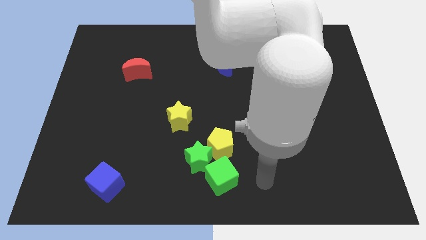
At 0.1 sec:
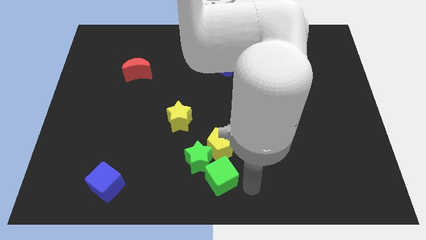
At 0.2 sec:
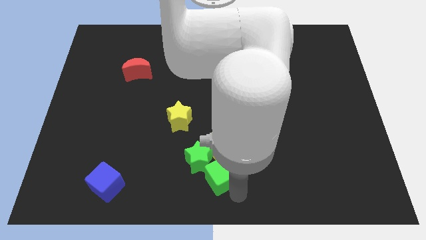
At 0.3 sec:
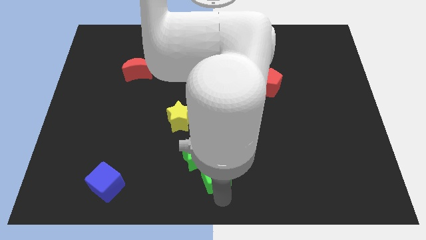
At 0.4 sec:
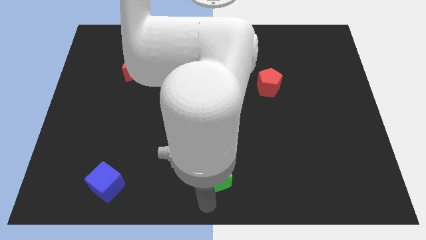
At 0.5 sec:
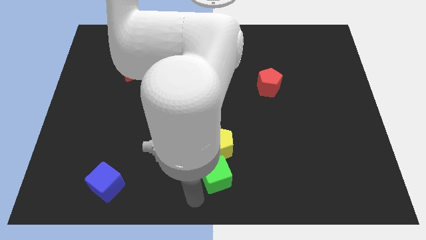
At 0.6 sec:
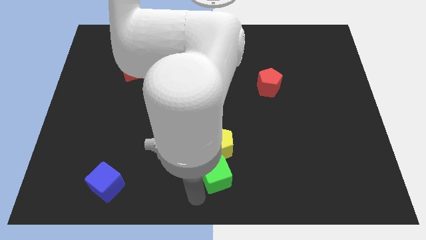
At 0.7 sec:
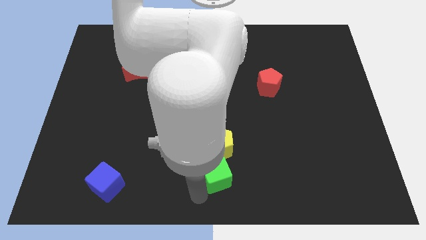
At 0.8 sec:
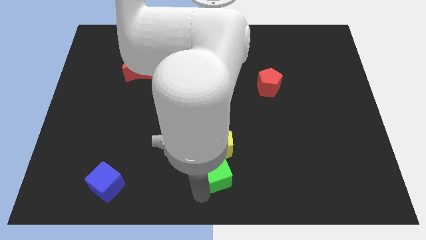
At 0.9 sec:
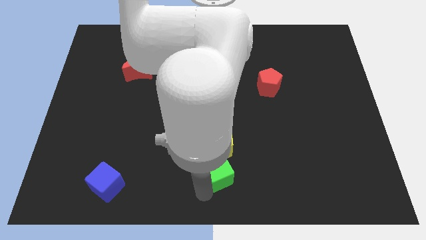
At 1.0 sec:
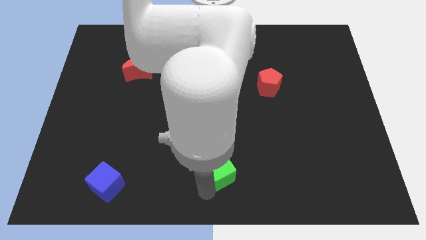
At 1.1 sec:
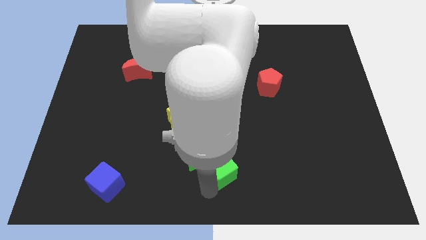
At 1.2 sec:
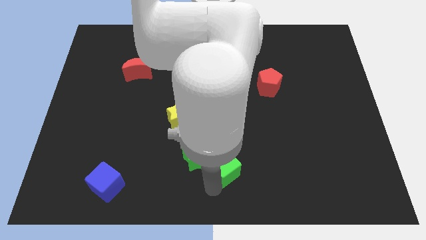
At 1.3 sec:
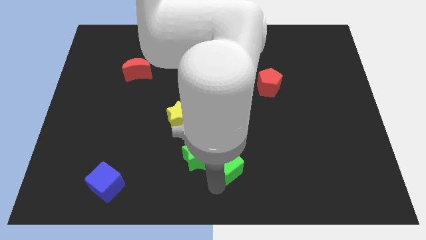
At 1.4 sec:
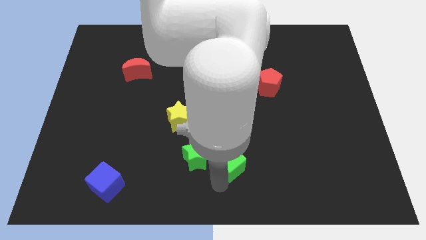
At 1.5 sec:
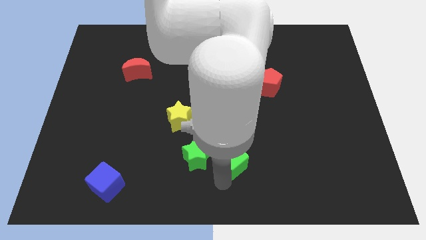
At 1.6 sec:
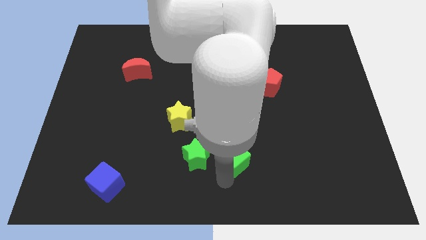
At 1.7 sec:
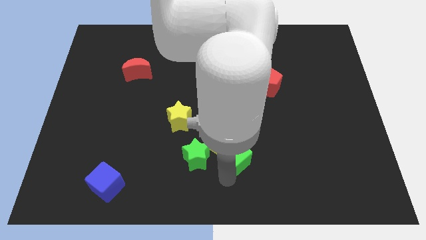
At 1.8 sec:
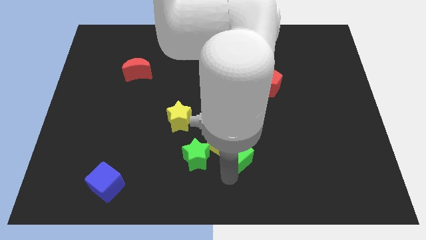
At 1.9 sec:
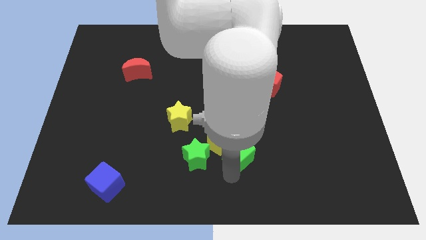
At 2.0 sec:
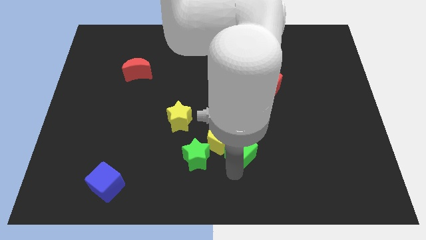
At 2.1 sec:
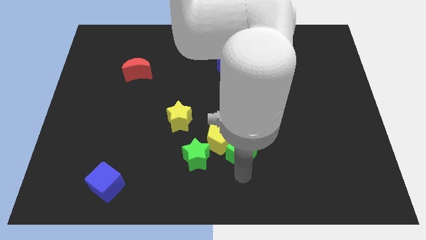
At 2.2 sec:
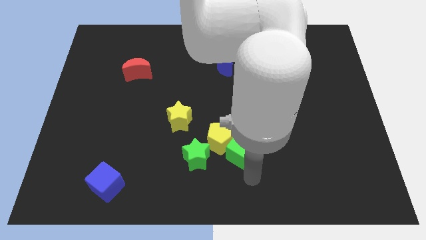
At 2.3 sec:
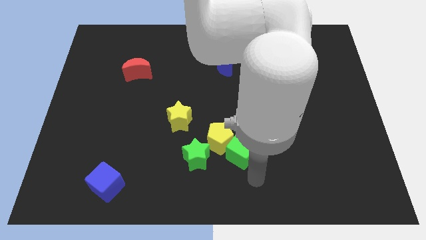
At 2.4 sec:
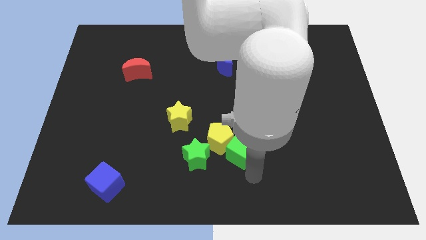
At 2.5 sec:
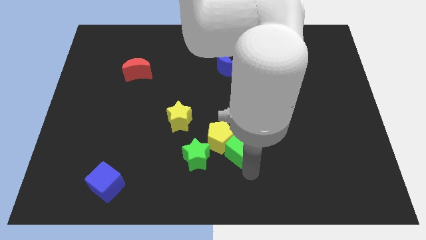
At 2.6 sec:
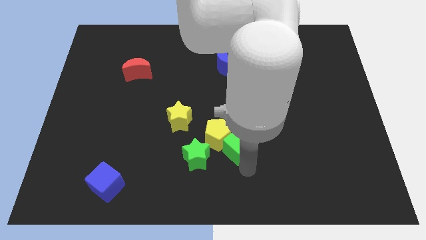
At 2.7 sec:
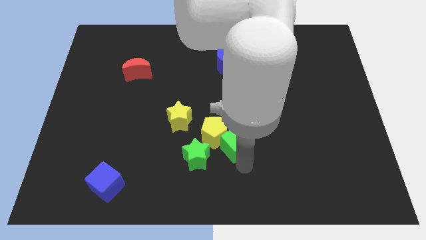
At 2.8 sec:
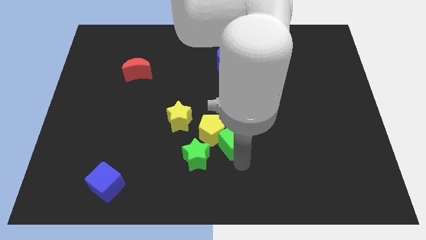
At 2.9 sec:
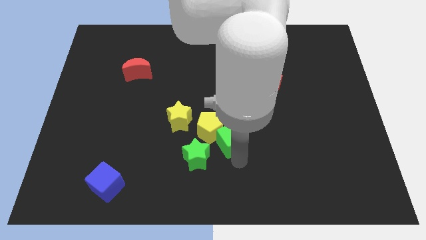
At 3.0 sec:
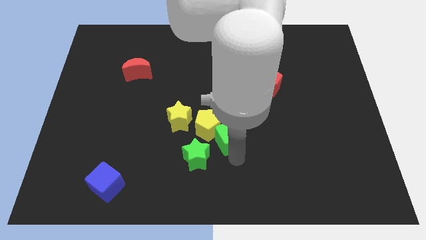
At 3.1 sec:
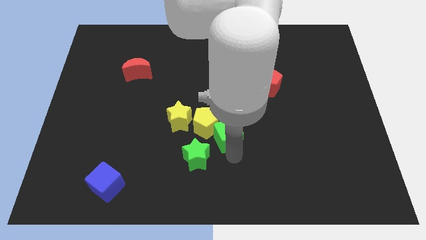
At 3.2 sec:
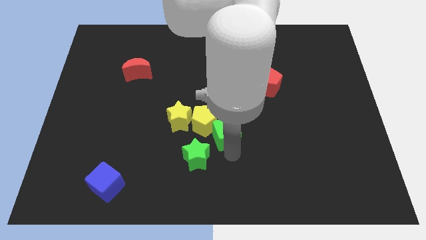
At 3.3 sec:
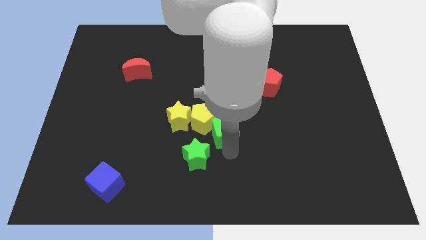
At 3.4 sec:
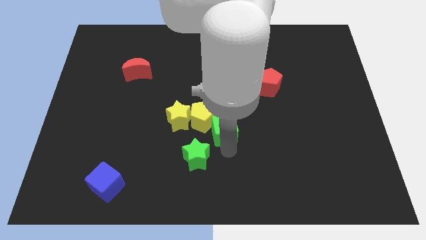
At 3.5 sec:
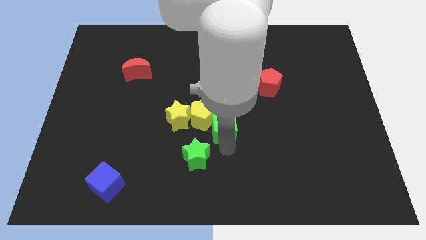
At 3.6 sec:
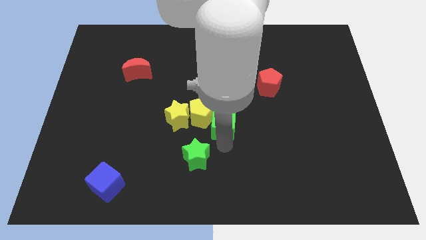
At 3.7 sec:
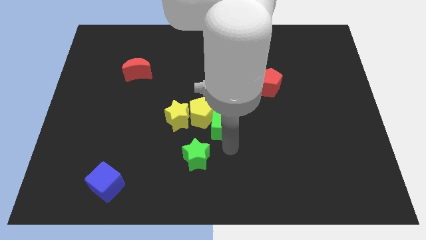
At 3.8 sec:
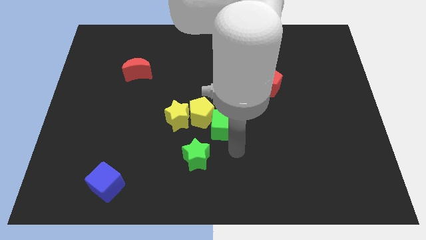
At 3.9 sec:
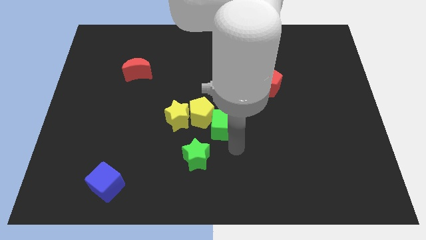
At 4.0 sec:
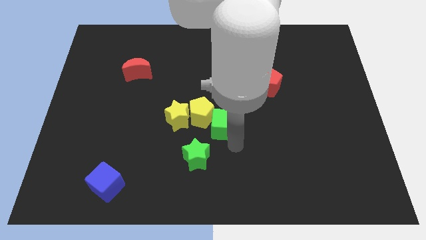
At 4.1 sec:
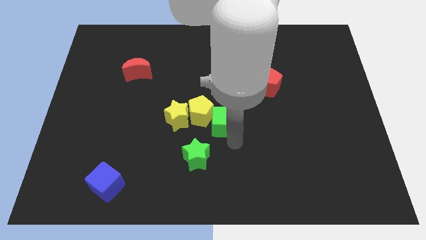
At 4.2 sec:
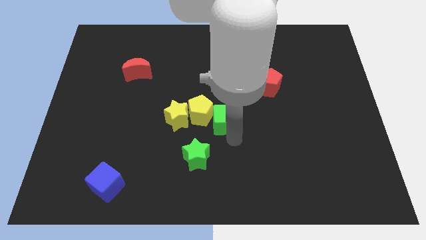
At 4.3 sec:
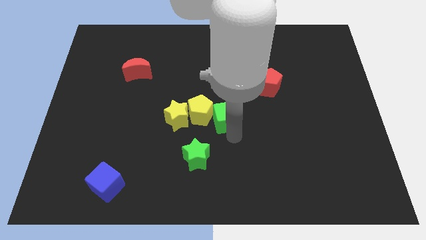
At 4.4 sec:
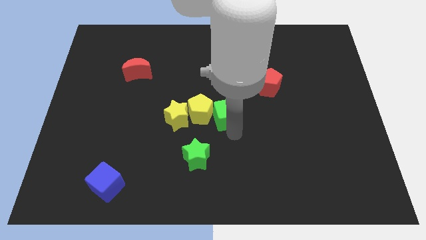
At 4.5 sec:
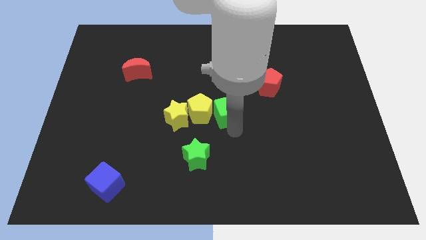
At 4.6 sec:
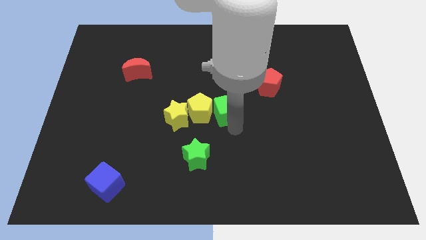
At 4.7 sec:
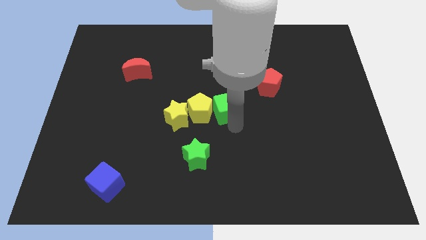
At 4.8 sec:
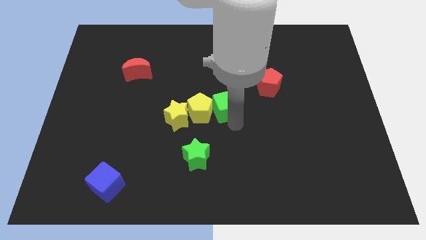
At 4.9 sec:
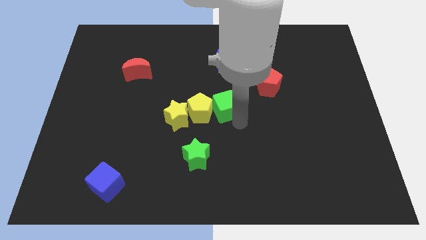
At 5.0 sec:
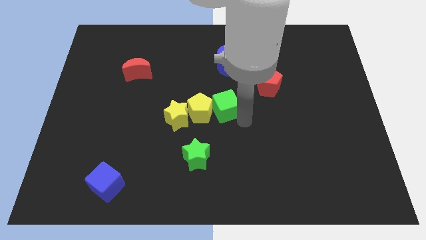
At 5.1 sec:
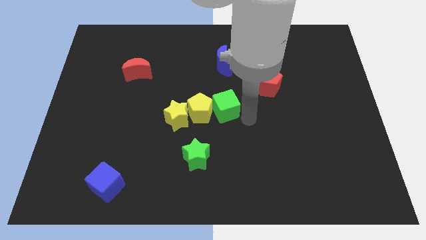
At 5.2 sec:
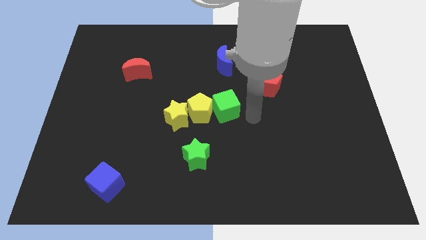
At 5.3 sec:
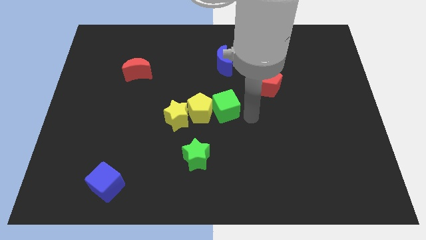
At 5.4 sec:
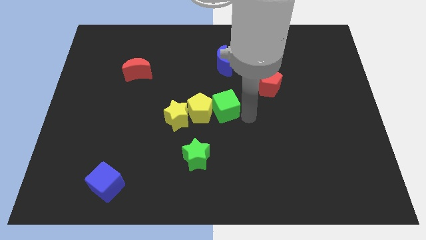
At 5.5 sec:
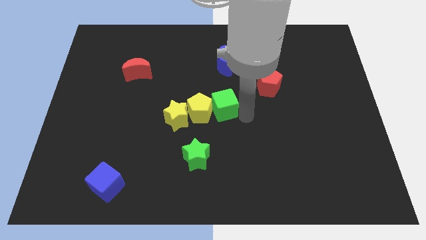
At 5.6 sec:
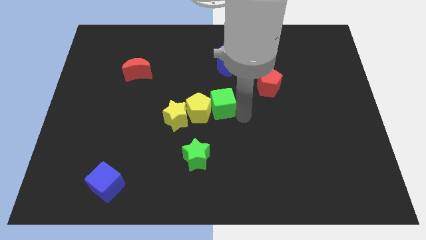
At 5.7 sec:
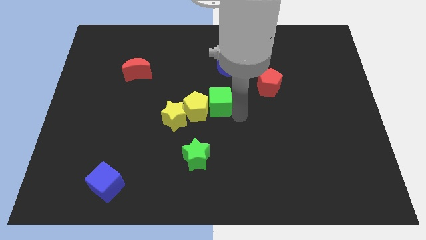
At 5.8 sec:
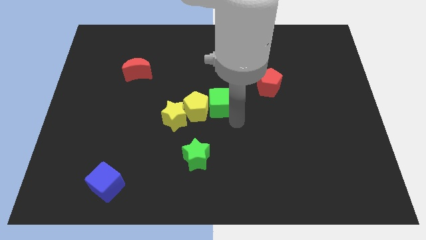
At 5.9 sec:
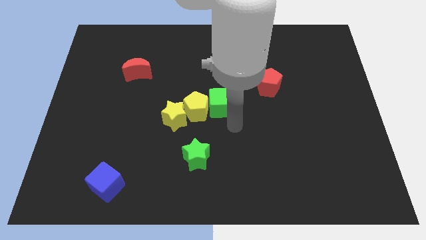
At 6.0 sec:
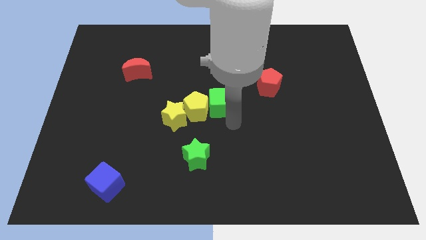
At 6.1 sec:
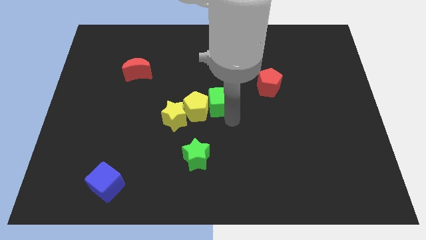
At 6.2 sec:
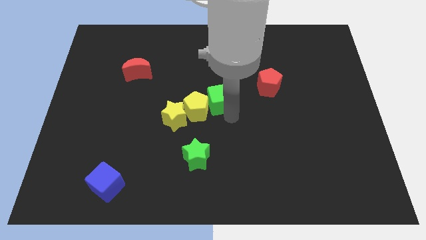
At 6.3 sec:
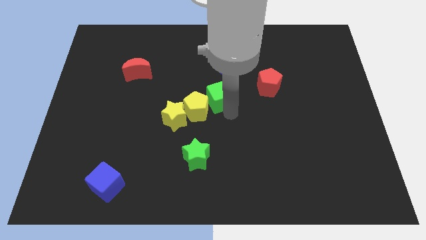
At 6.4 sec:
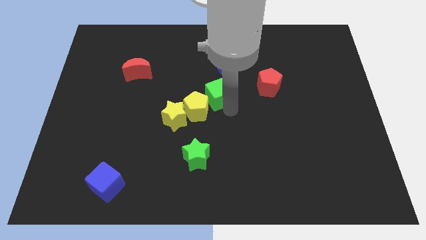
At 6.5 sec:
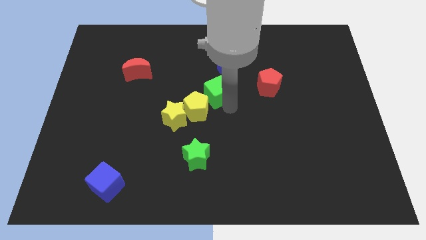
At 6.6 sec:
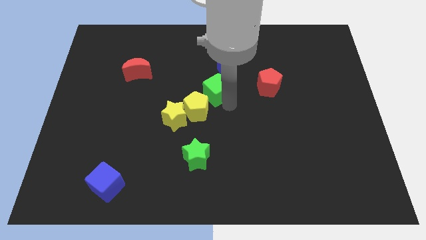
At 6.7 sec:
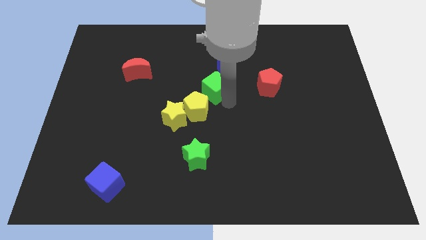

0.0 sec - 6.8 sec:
move the green cube diagonally down and to the left of the blue moon
